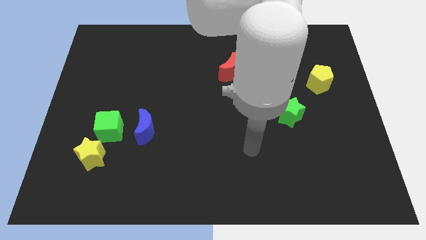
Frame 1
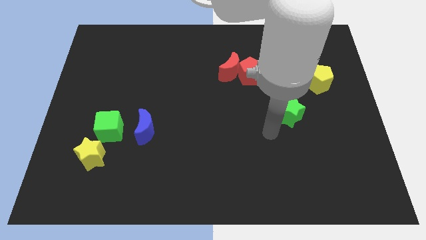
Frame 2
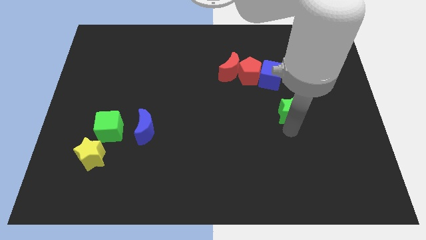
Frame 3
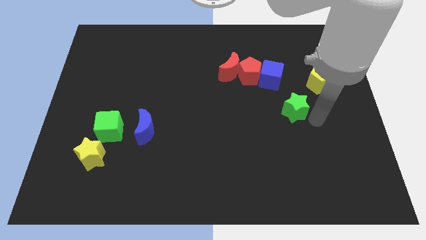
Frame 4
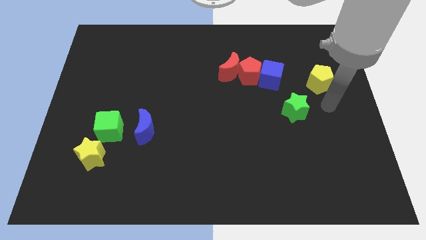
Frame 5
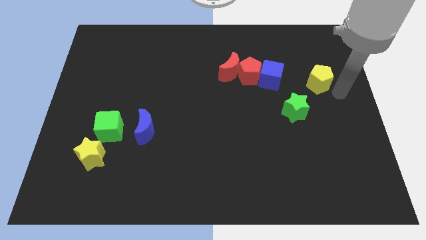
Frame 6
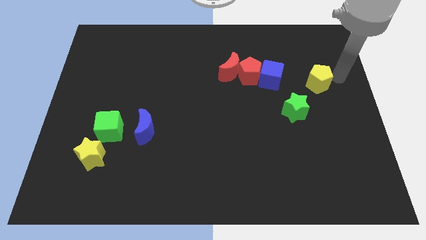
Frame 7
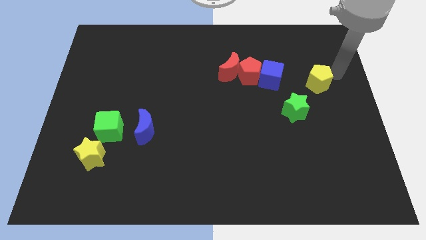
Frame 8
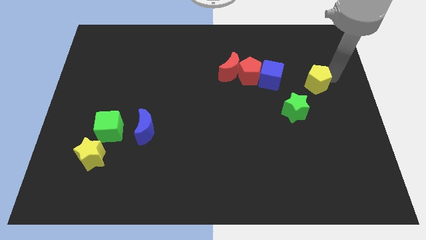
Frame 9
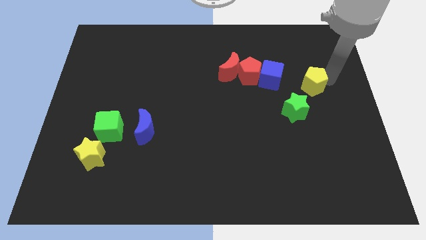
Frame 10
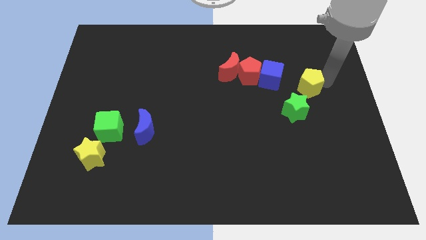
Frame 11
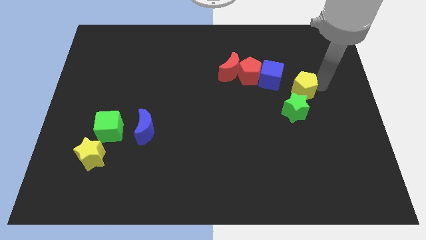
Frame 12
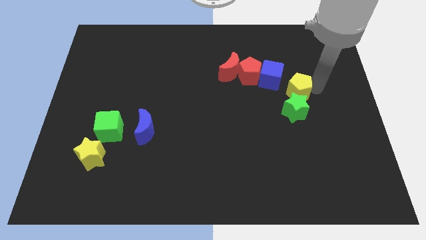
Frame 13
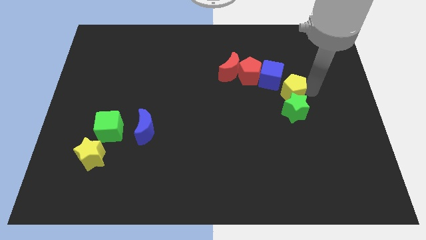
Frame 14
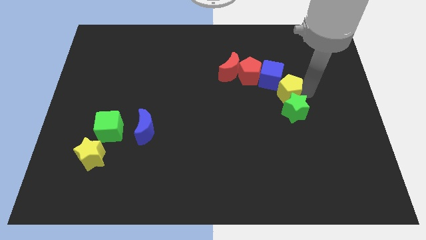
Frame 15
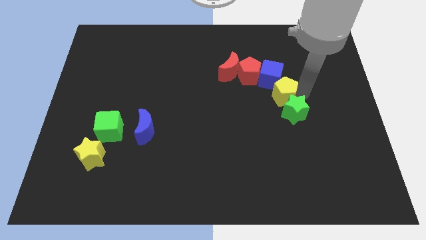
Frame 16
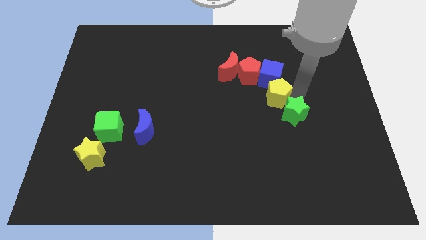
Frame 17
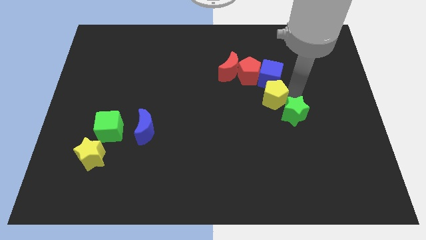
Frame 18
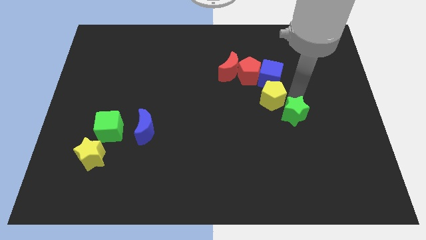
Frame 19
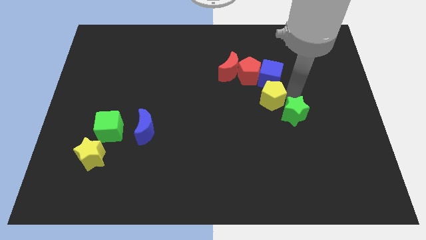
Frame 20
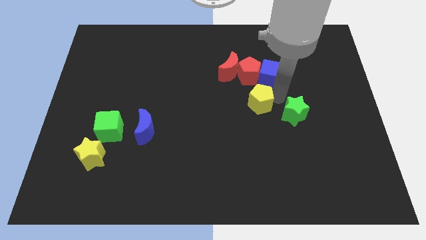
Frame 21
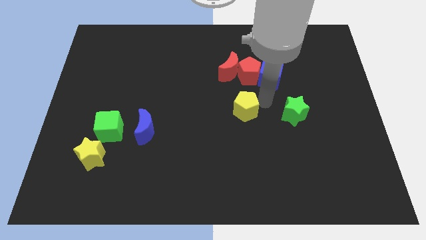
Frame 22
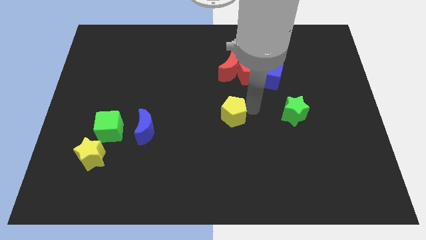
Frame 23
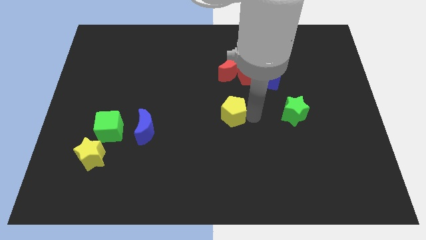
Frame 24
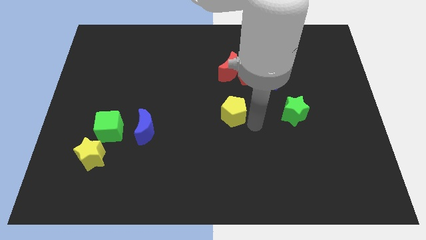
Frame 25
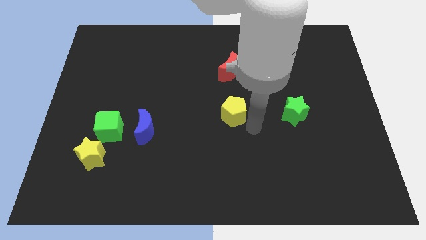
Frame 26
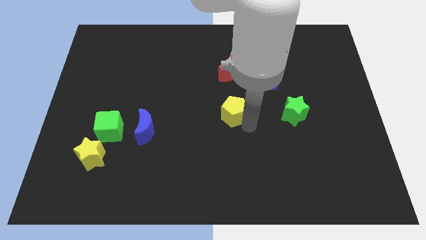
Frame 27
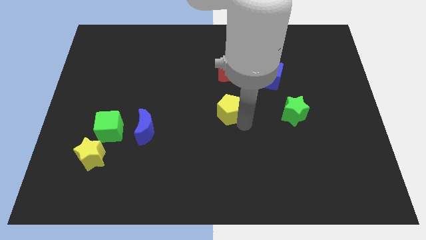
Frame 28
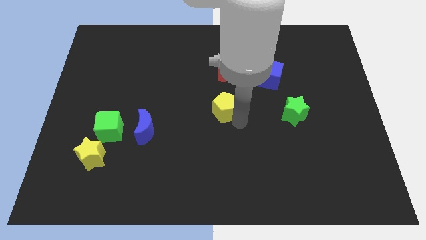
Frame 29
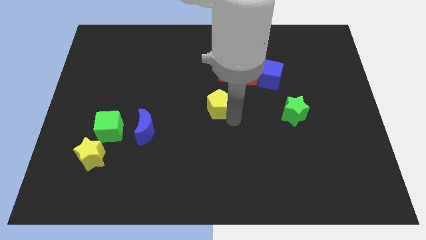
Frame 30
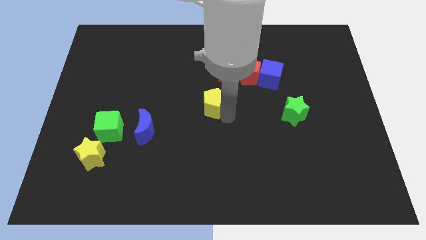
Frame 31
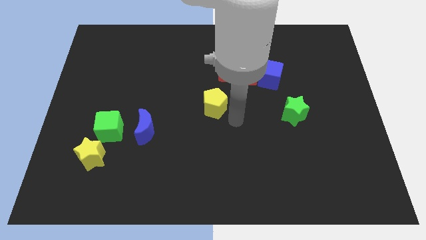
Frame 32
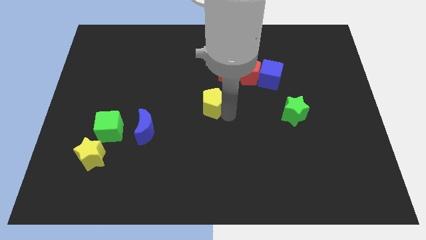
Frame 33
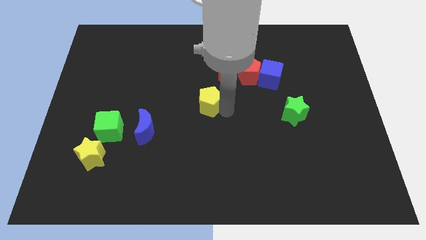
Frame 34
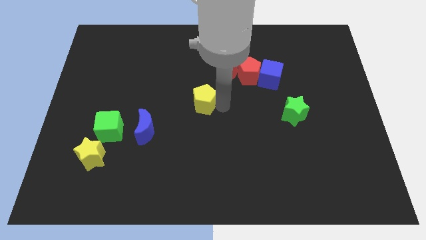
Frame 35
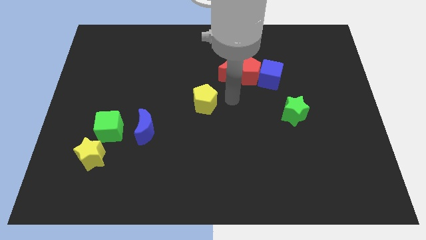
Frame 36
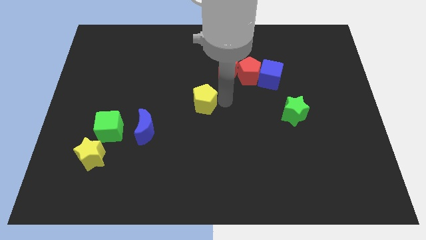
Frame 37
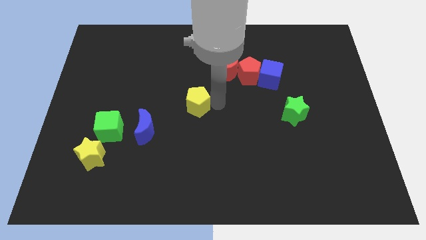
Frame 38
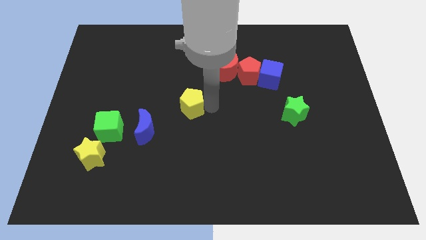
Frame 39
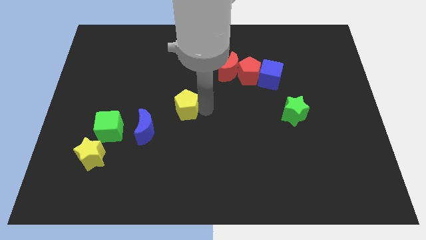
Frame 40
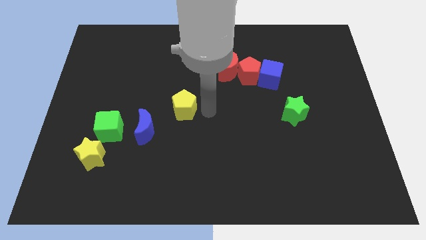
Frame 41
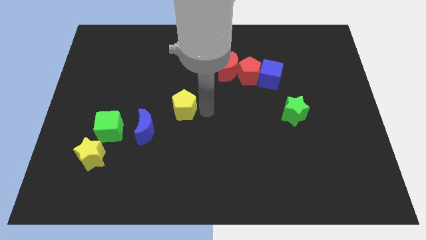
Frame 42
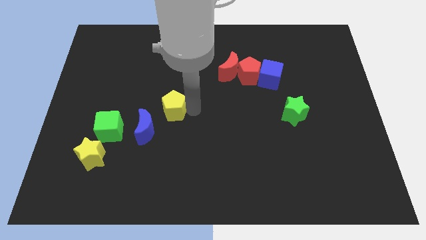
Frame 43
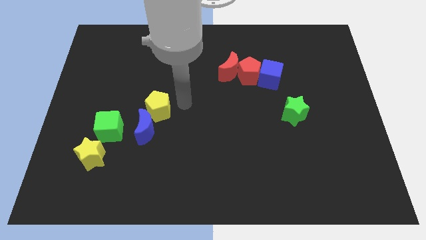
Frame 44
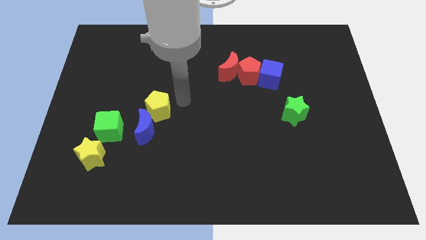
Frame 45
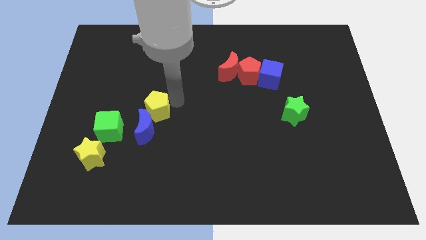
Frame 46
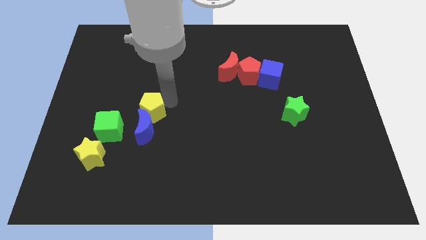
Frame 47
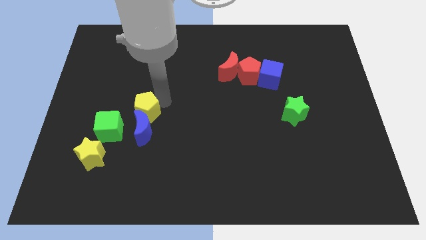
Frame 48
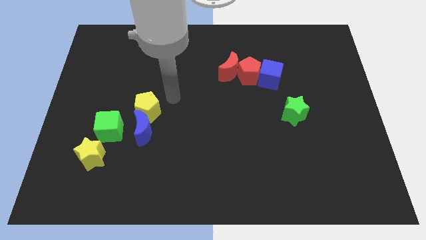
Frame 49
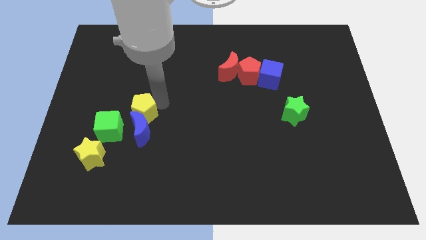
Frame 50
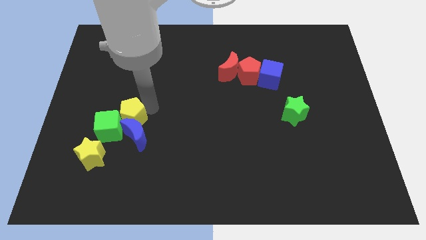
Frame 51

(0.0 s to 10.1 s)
move the yellow pentagon close to the green cube

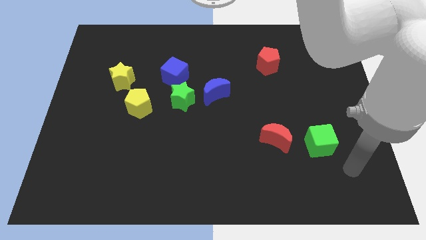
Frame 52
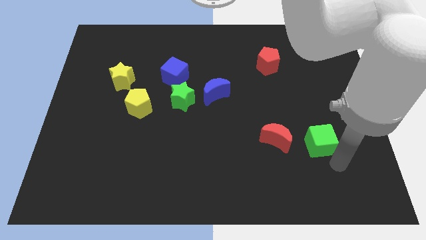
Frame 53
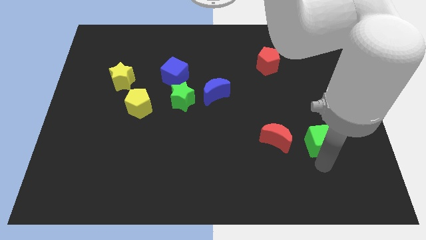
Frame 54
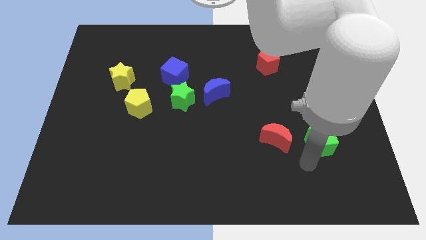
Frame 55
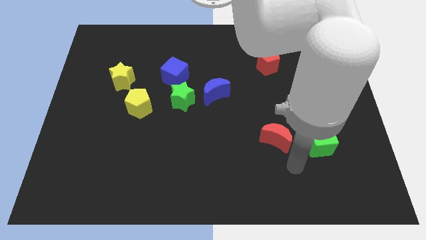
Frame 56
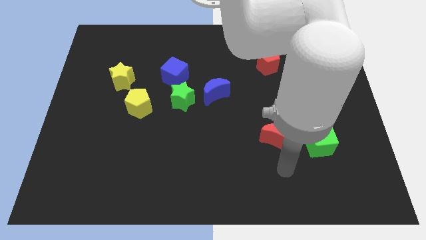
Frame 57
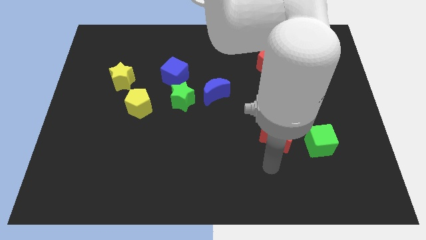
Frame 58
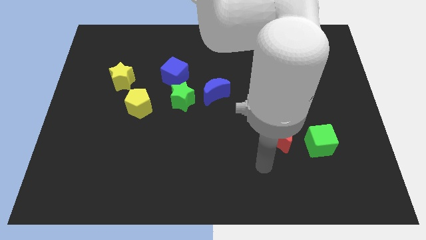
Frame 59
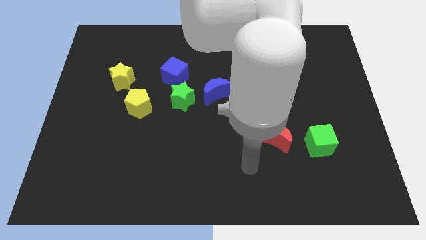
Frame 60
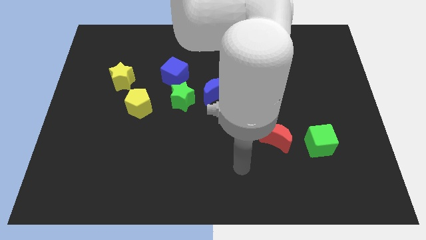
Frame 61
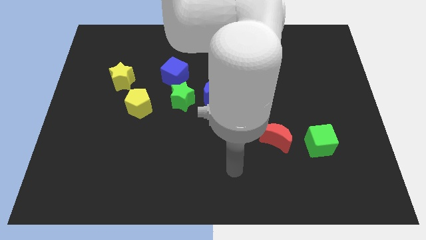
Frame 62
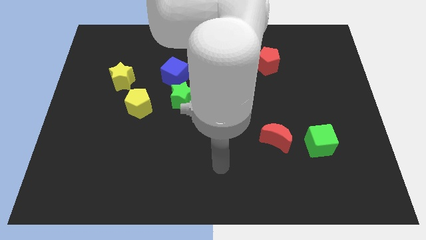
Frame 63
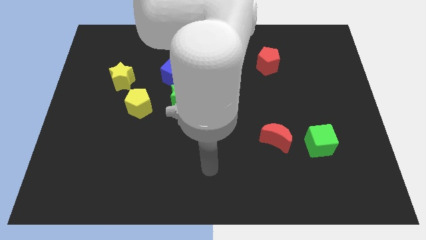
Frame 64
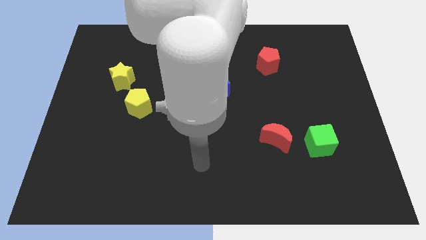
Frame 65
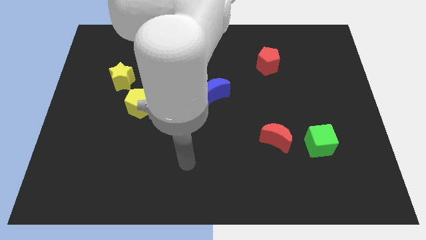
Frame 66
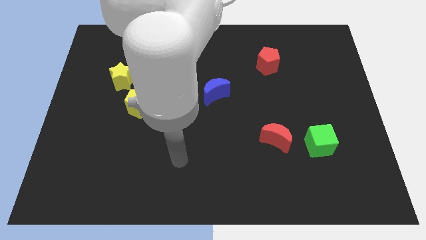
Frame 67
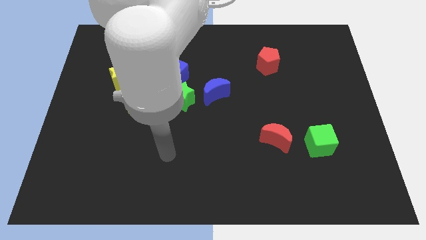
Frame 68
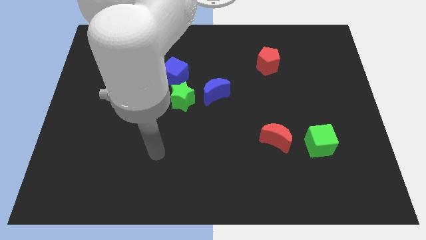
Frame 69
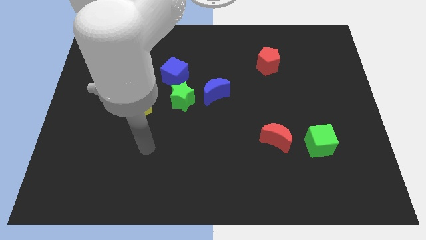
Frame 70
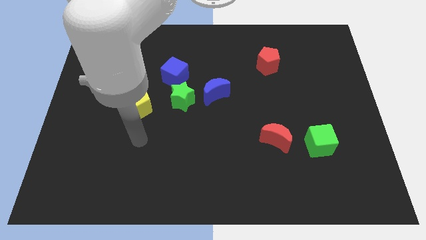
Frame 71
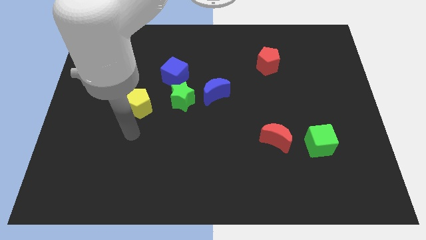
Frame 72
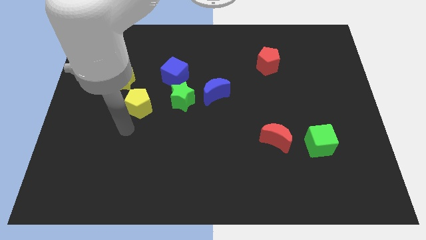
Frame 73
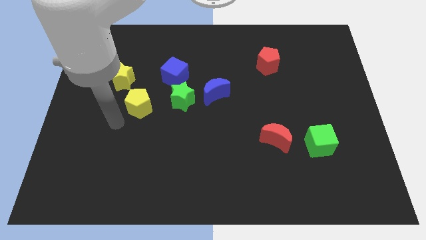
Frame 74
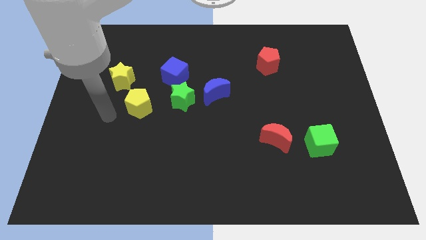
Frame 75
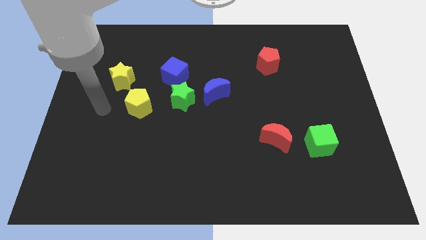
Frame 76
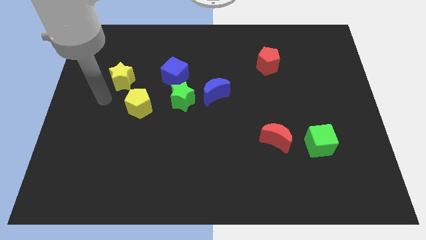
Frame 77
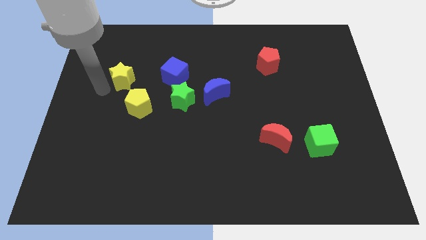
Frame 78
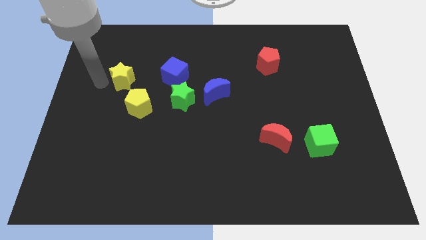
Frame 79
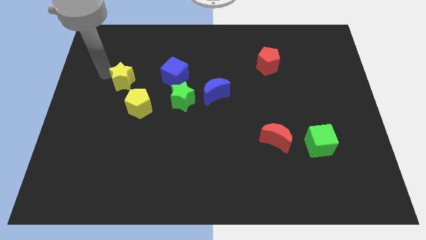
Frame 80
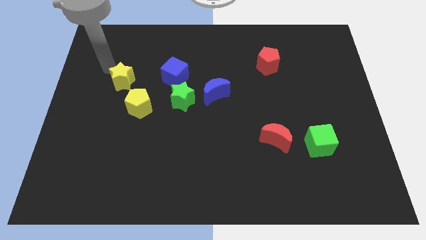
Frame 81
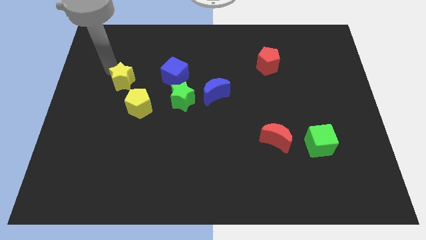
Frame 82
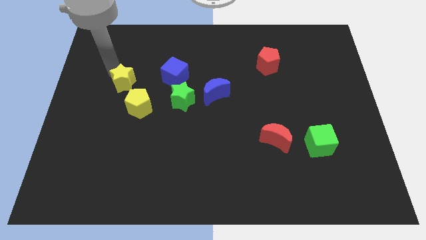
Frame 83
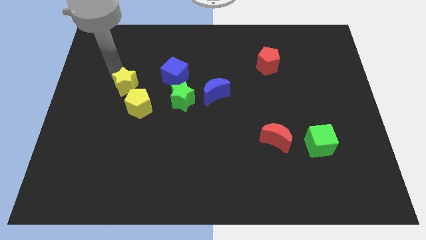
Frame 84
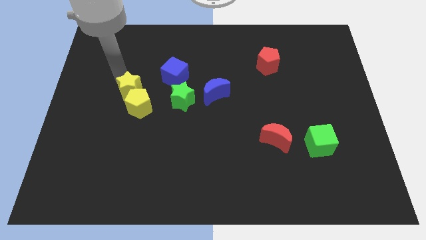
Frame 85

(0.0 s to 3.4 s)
move the yellow star next to the yellow pentagon
